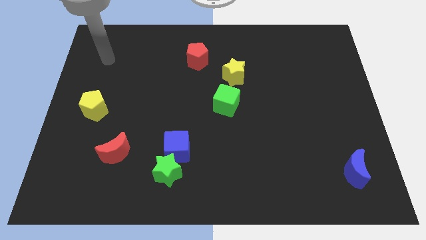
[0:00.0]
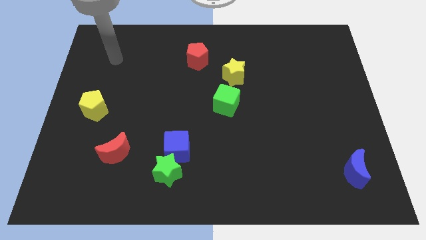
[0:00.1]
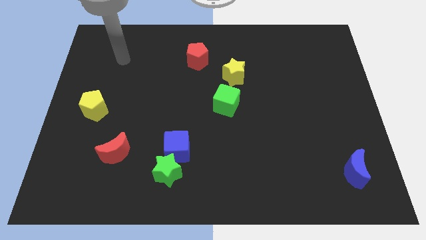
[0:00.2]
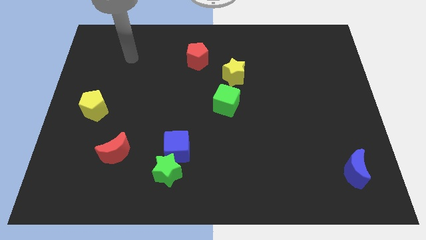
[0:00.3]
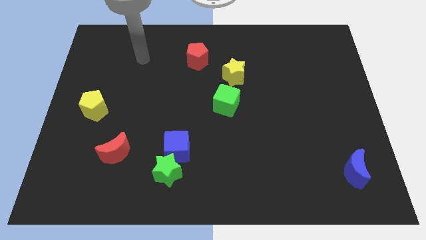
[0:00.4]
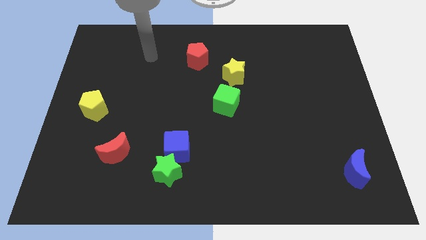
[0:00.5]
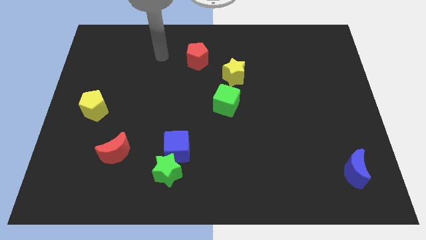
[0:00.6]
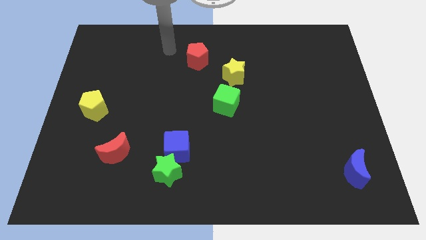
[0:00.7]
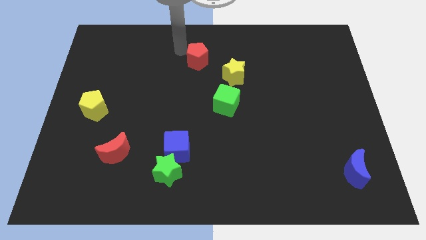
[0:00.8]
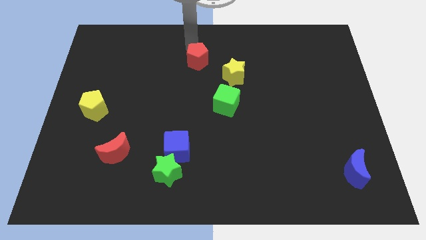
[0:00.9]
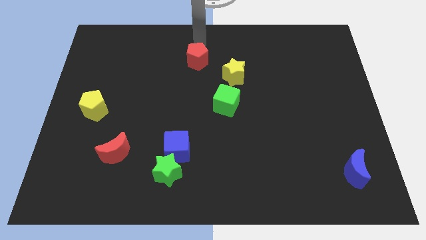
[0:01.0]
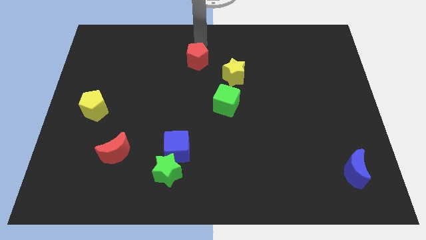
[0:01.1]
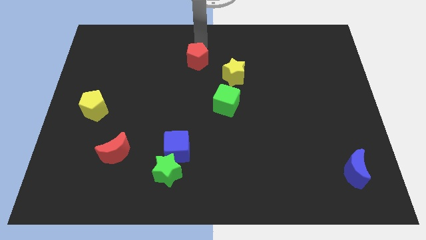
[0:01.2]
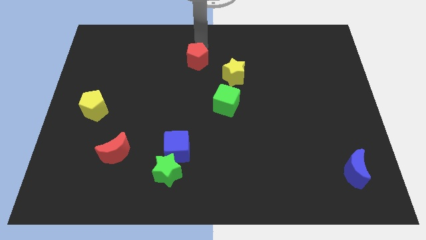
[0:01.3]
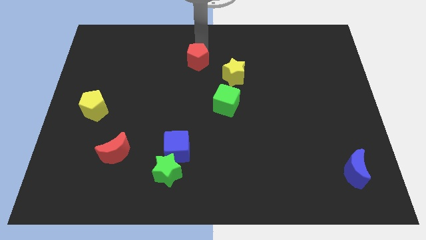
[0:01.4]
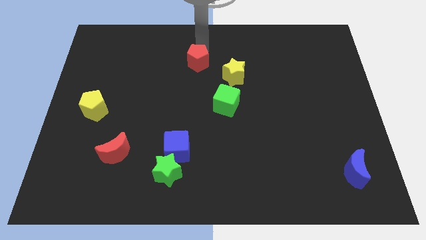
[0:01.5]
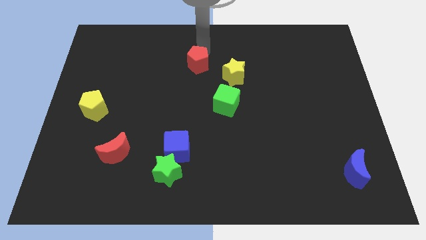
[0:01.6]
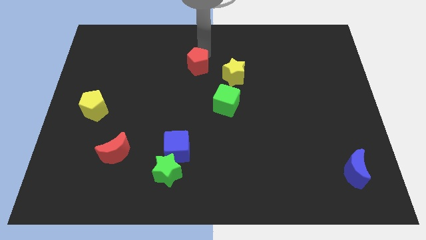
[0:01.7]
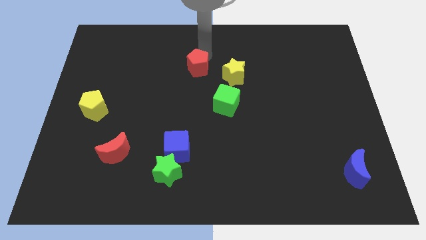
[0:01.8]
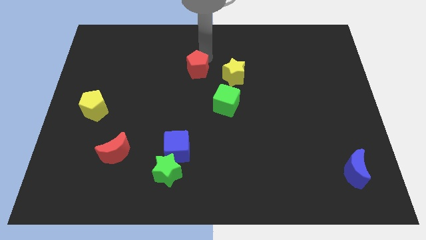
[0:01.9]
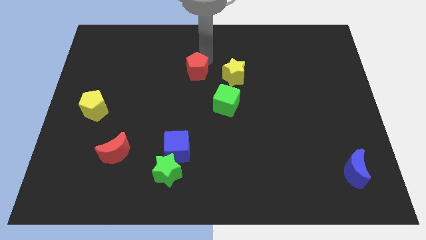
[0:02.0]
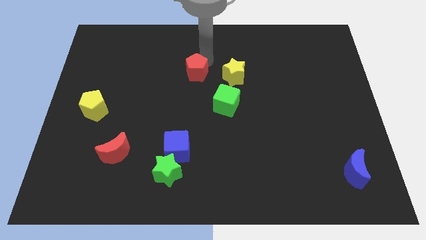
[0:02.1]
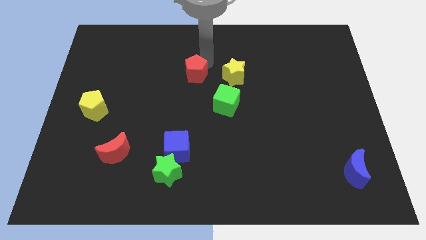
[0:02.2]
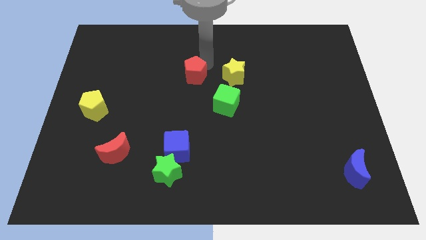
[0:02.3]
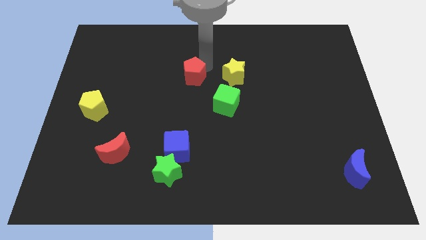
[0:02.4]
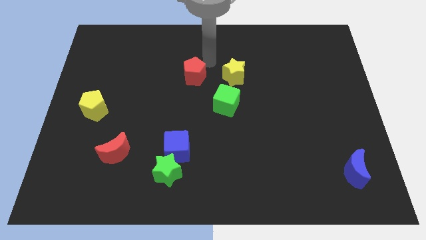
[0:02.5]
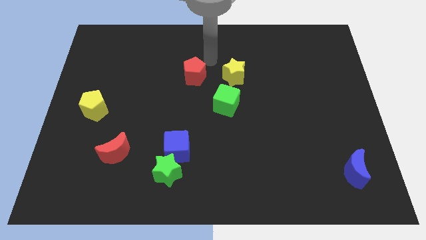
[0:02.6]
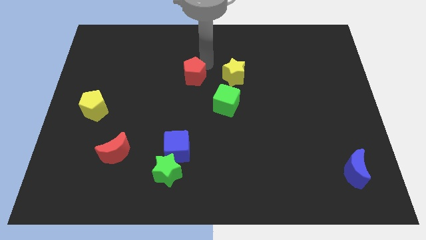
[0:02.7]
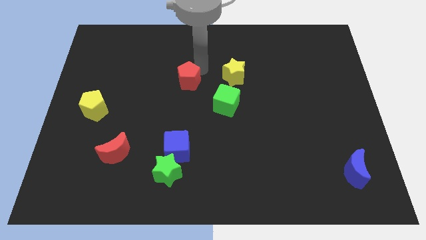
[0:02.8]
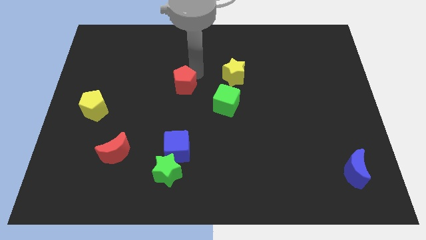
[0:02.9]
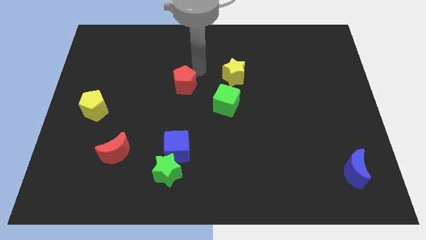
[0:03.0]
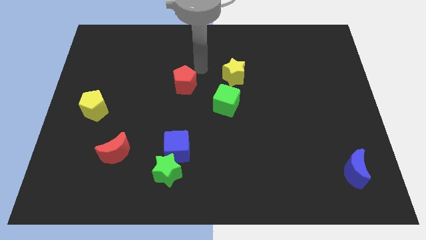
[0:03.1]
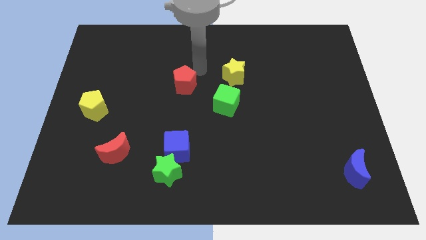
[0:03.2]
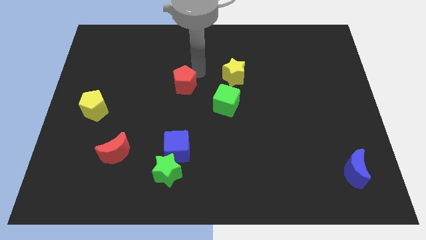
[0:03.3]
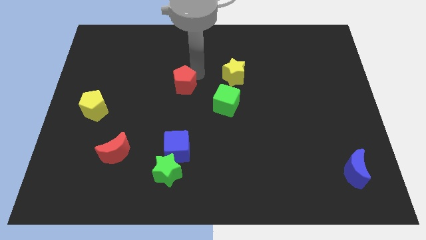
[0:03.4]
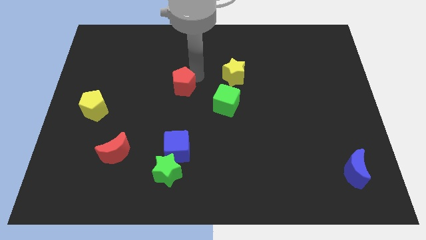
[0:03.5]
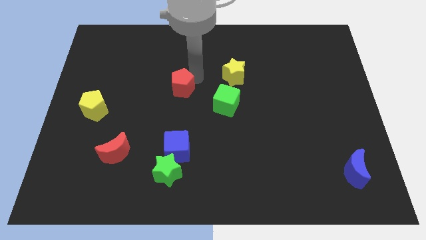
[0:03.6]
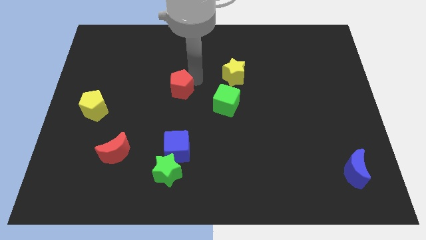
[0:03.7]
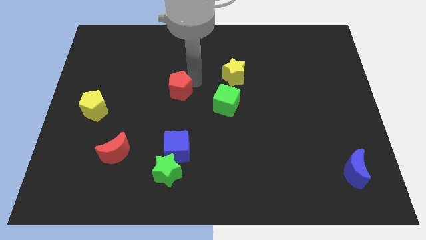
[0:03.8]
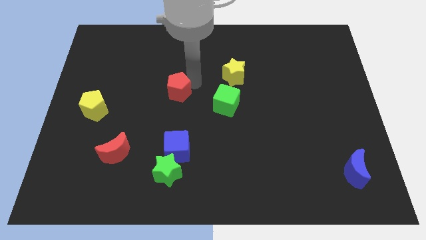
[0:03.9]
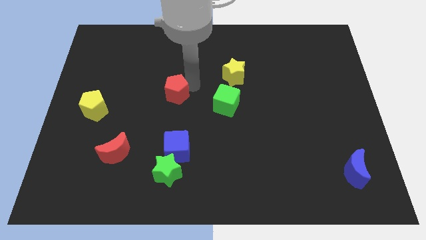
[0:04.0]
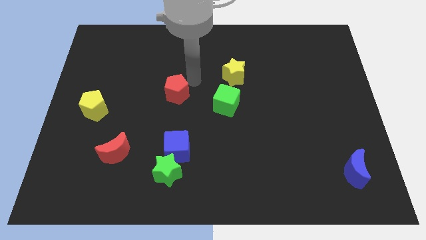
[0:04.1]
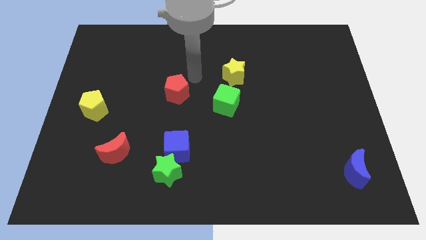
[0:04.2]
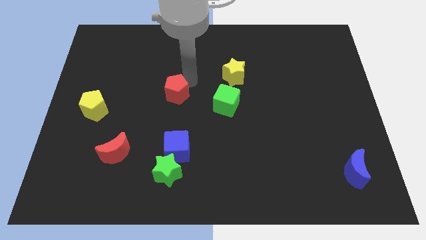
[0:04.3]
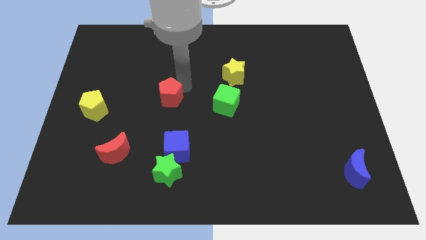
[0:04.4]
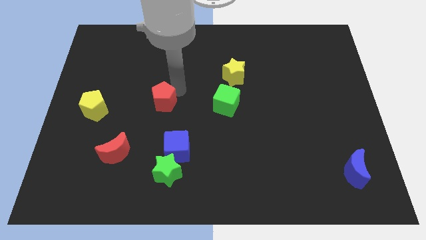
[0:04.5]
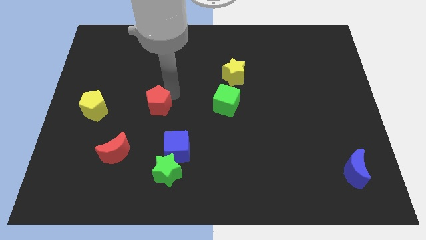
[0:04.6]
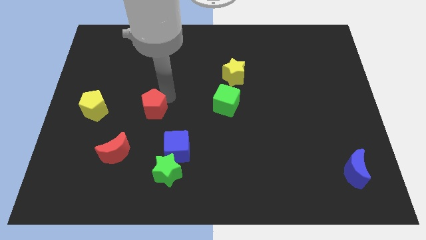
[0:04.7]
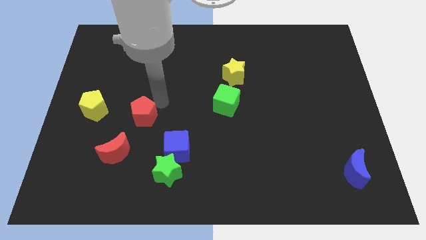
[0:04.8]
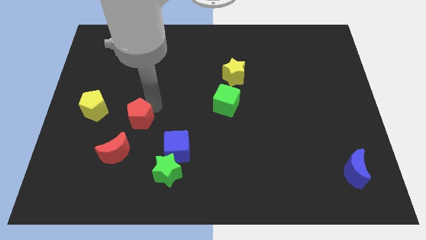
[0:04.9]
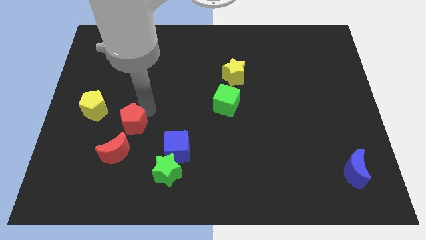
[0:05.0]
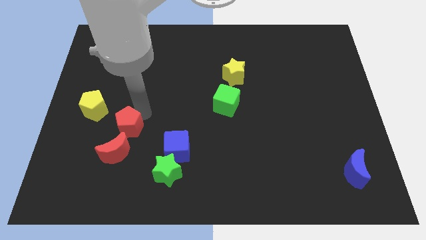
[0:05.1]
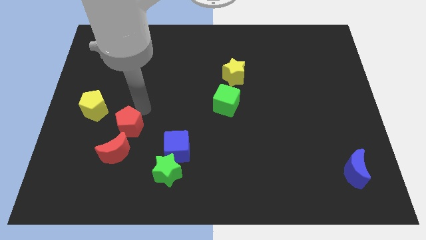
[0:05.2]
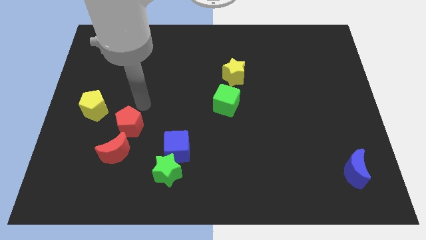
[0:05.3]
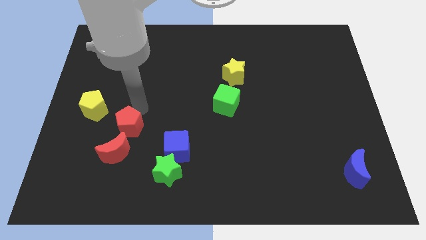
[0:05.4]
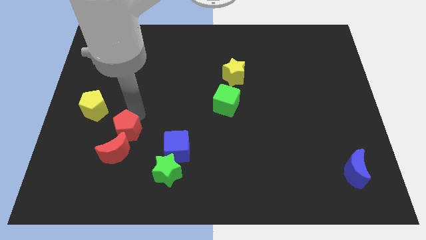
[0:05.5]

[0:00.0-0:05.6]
slide the red pentagon next to the red moon

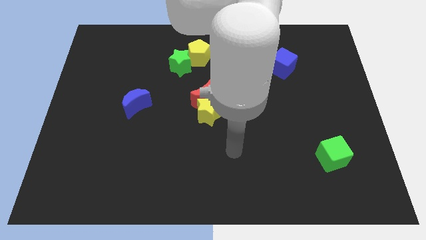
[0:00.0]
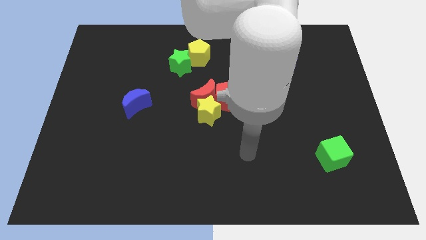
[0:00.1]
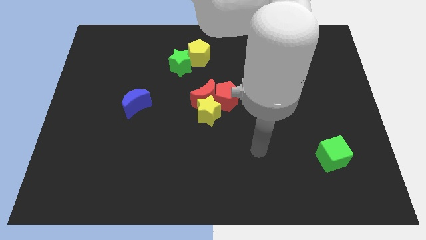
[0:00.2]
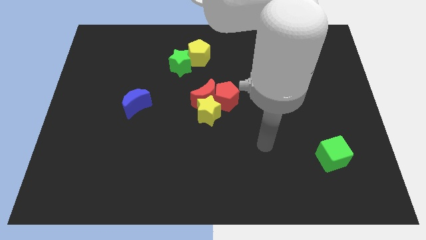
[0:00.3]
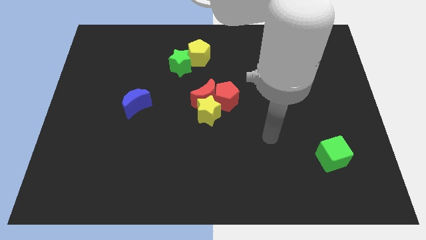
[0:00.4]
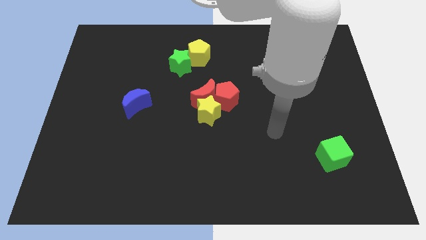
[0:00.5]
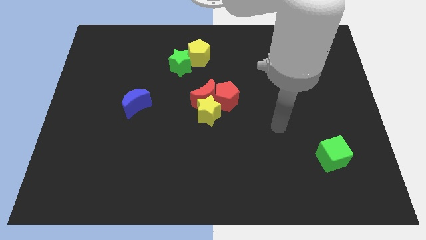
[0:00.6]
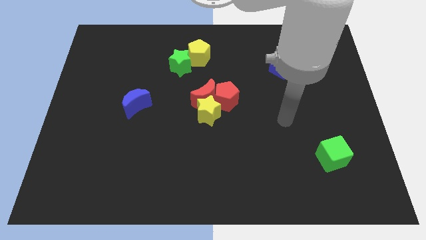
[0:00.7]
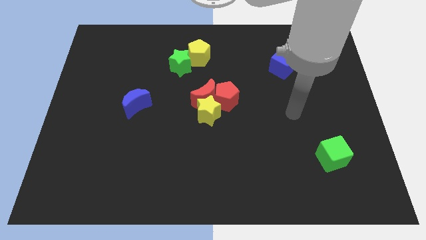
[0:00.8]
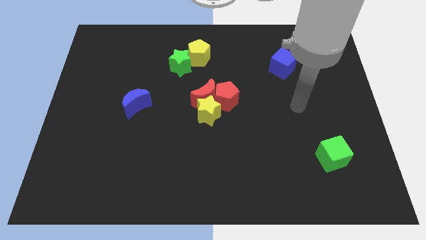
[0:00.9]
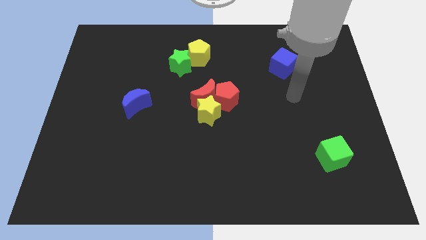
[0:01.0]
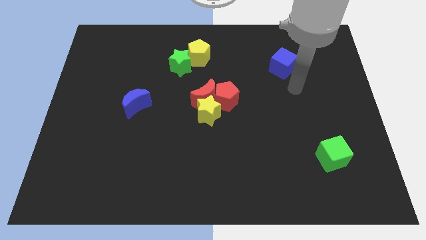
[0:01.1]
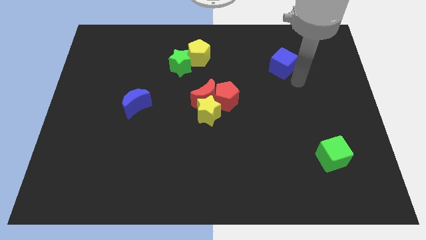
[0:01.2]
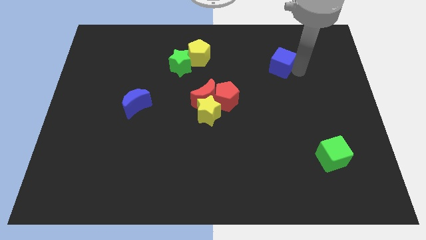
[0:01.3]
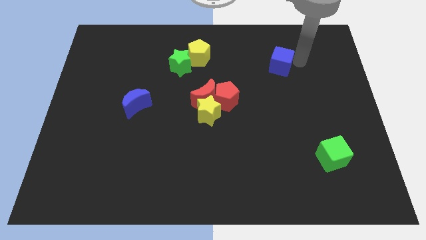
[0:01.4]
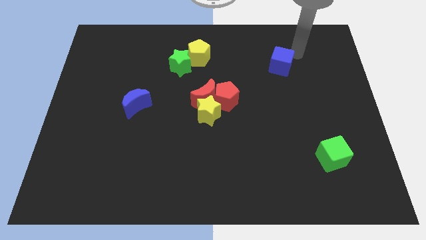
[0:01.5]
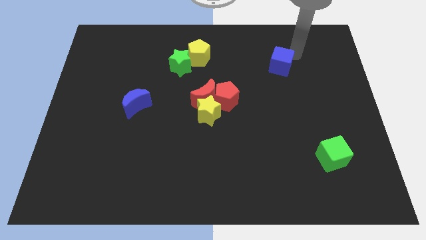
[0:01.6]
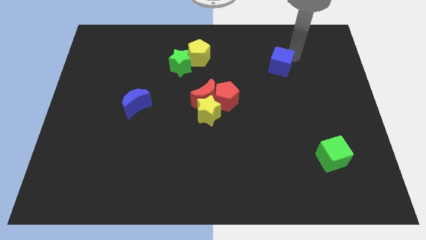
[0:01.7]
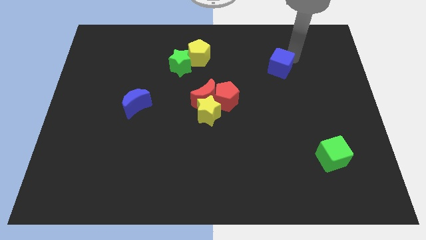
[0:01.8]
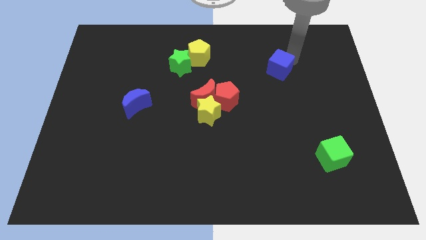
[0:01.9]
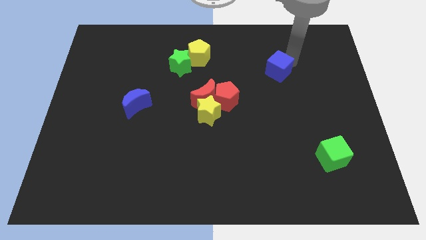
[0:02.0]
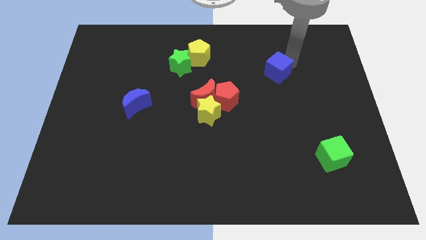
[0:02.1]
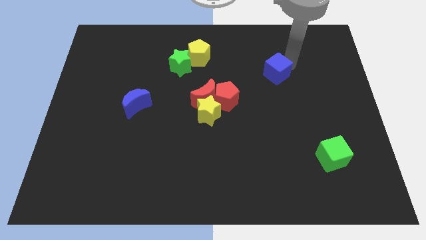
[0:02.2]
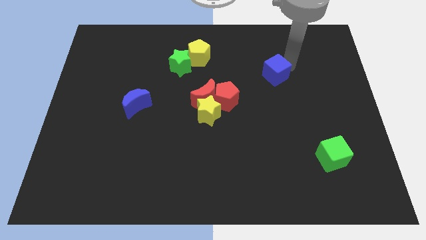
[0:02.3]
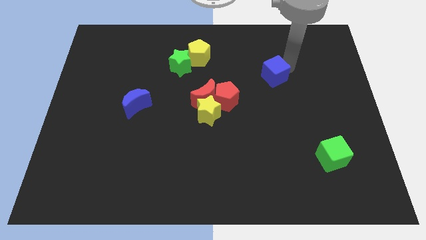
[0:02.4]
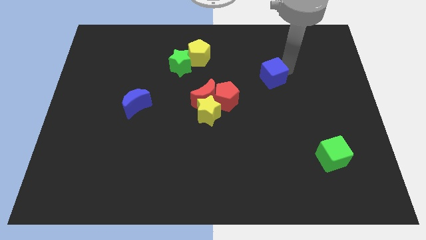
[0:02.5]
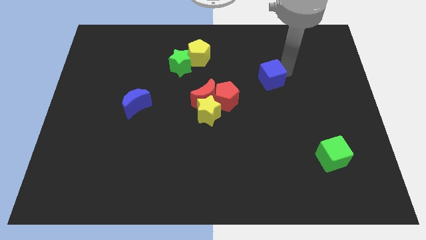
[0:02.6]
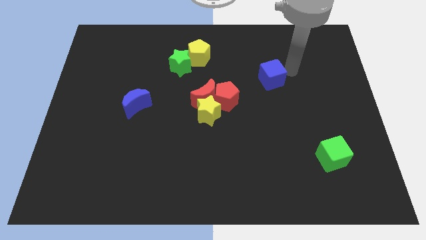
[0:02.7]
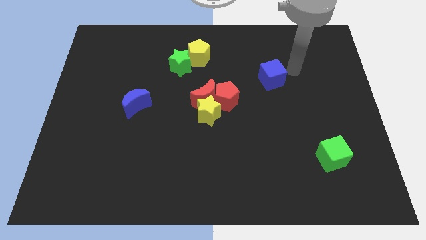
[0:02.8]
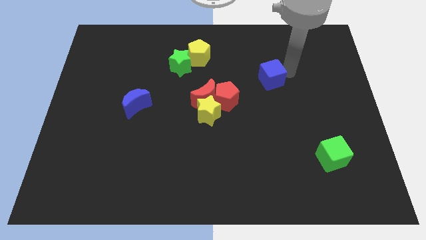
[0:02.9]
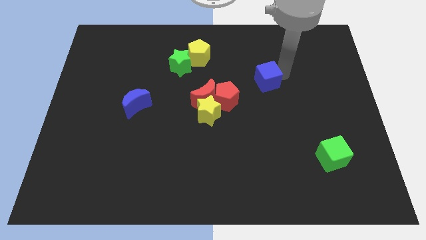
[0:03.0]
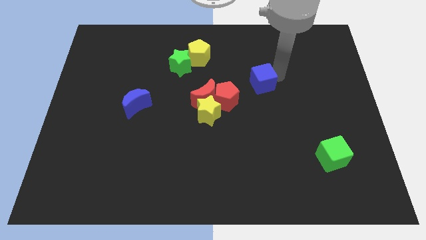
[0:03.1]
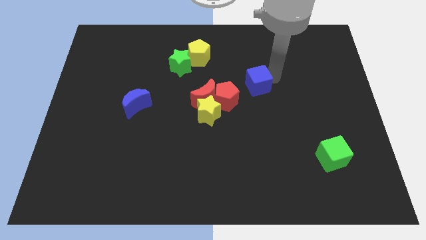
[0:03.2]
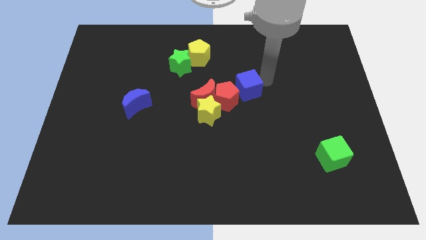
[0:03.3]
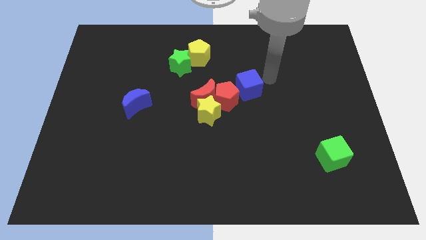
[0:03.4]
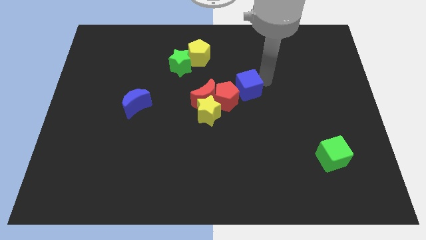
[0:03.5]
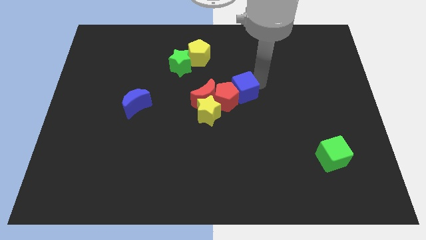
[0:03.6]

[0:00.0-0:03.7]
put the blue cube close to the red pentagon
